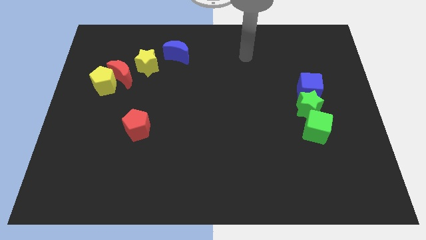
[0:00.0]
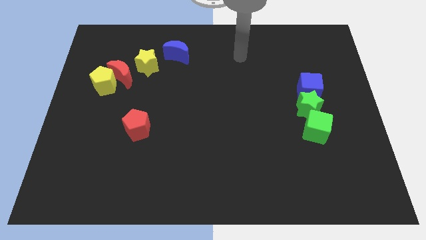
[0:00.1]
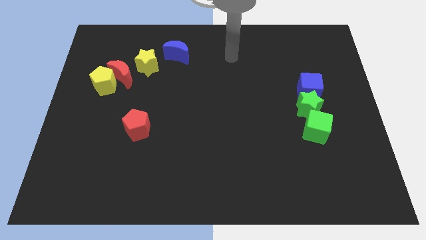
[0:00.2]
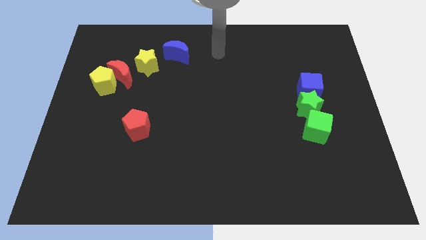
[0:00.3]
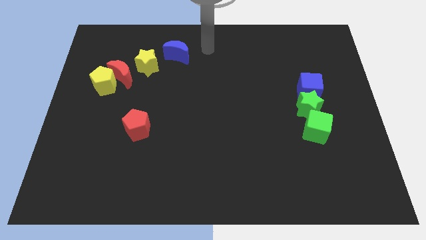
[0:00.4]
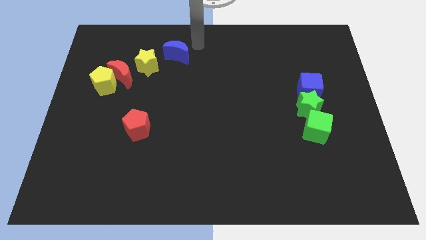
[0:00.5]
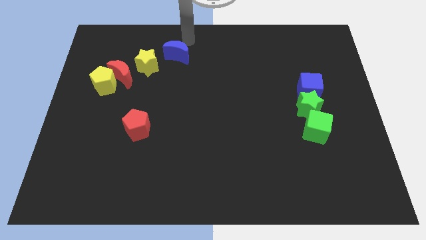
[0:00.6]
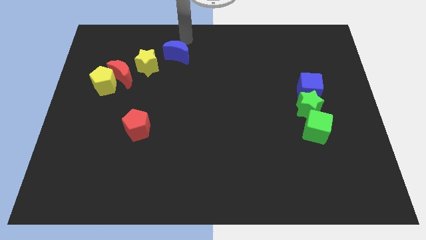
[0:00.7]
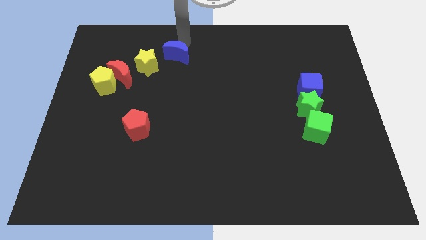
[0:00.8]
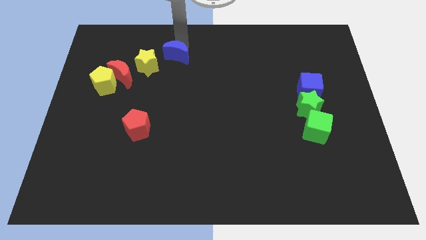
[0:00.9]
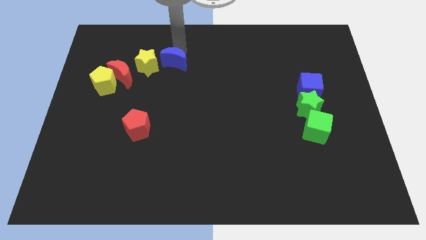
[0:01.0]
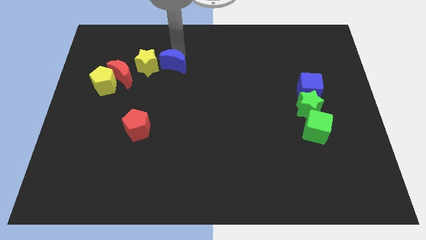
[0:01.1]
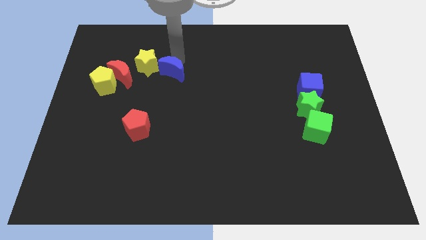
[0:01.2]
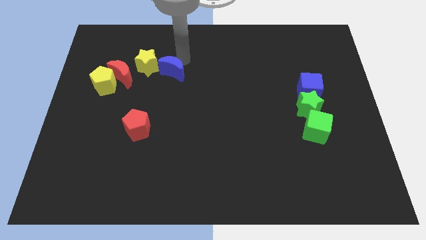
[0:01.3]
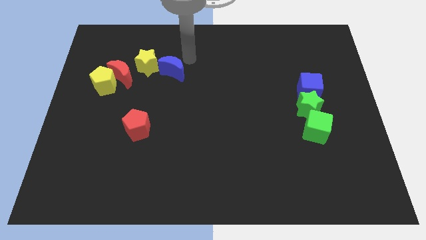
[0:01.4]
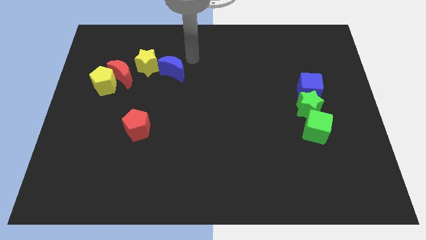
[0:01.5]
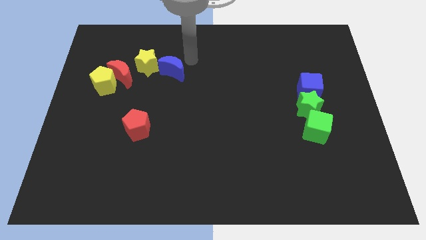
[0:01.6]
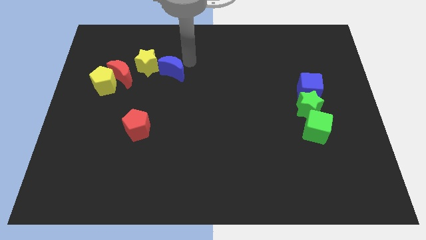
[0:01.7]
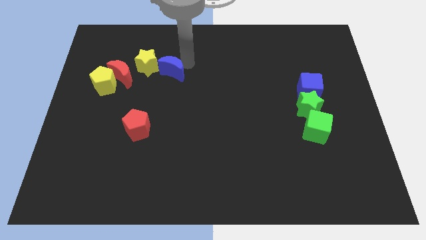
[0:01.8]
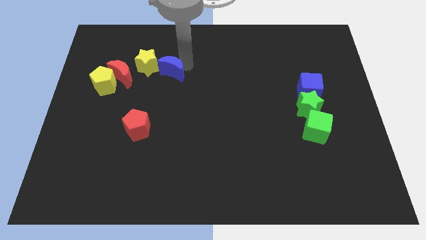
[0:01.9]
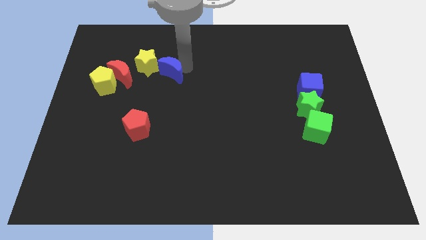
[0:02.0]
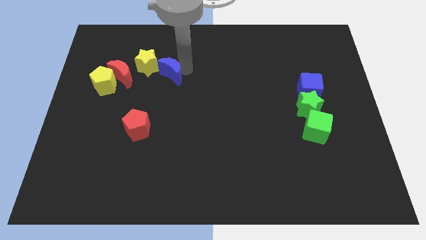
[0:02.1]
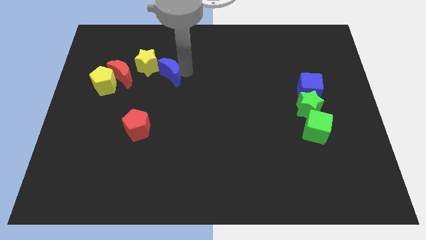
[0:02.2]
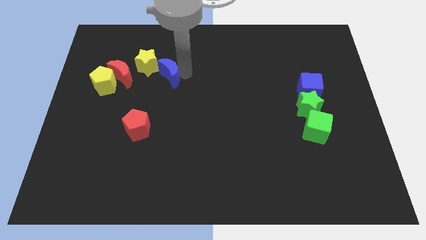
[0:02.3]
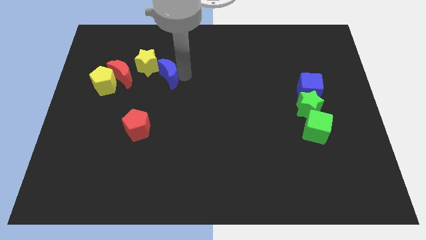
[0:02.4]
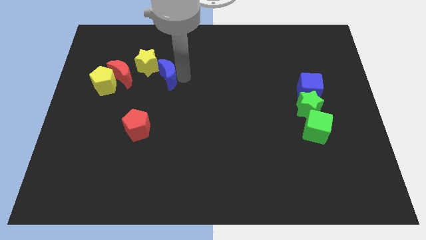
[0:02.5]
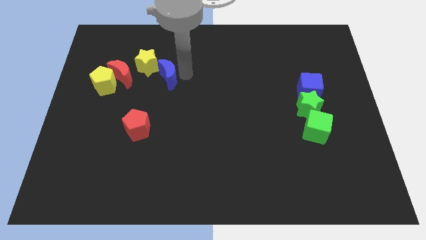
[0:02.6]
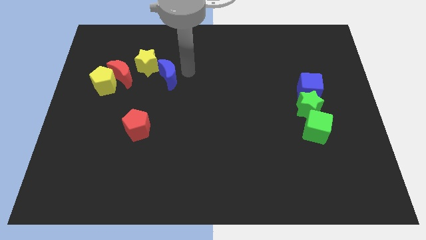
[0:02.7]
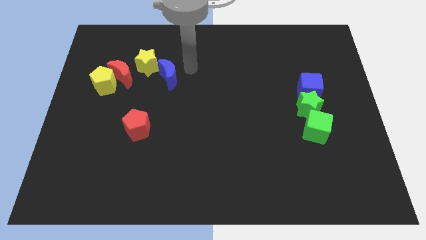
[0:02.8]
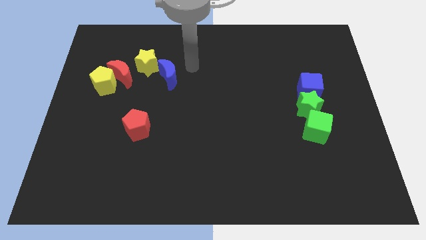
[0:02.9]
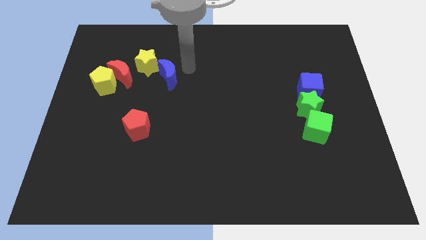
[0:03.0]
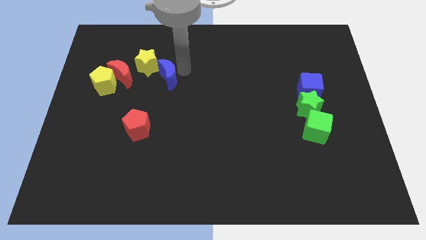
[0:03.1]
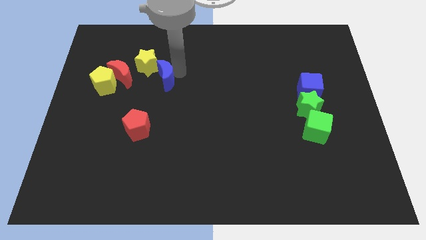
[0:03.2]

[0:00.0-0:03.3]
push the blue moon down and left diagonally a little bit

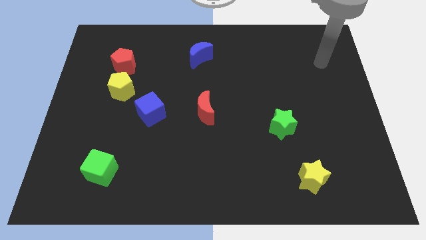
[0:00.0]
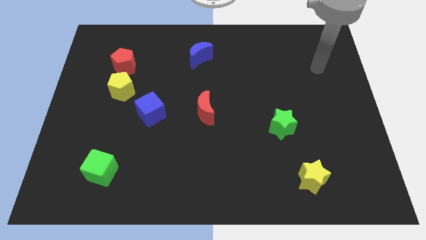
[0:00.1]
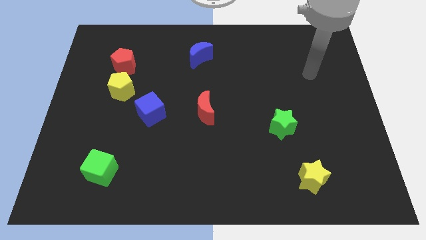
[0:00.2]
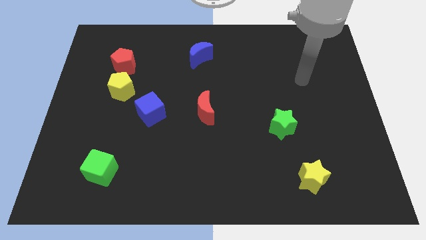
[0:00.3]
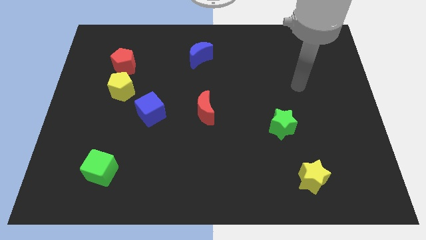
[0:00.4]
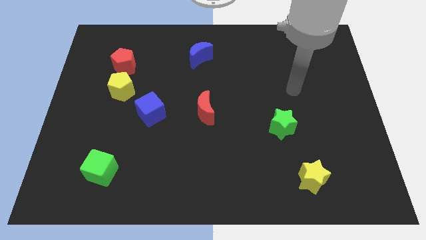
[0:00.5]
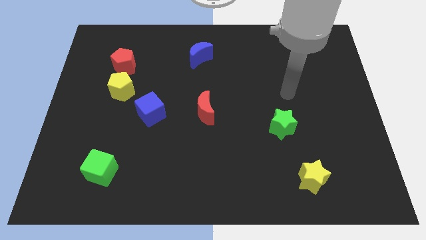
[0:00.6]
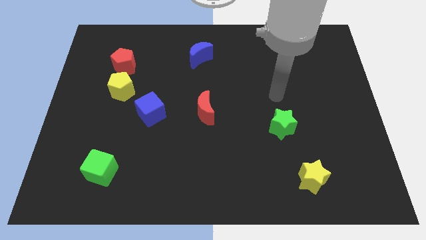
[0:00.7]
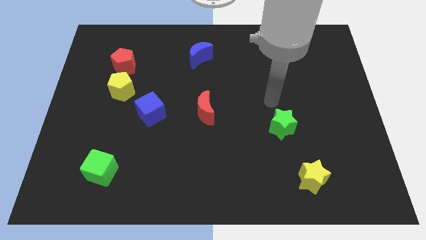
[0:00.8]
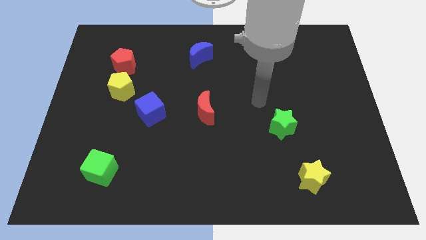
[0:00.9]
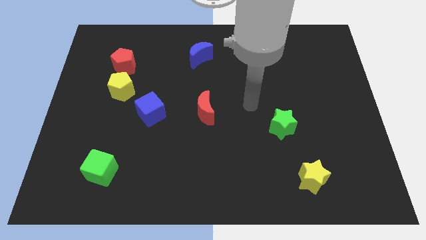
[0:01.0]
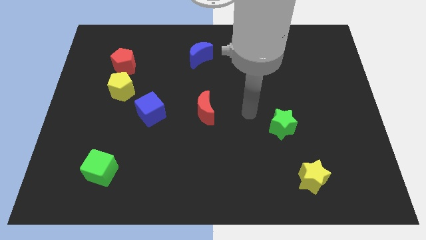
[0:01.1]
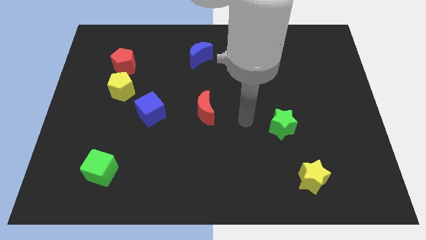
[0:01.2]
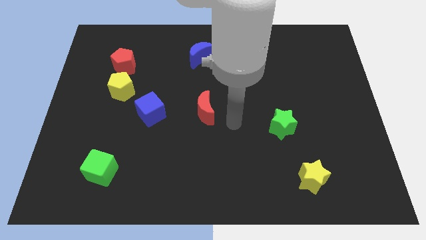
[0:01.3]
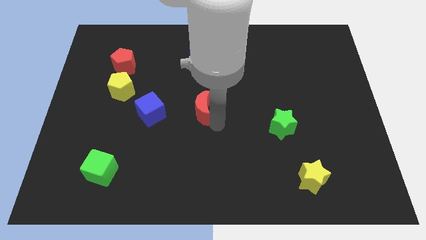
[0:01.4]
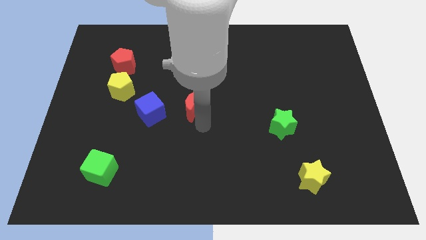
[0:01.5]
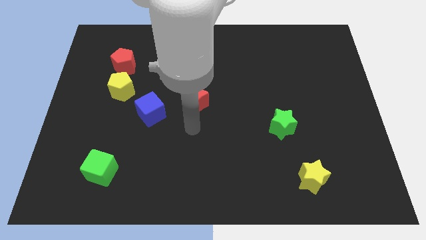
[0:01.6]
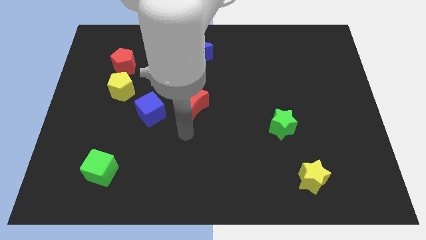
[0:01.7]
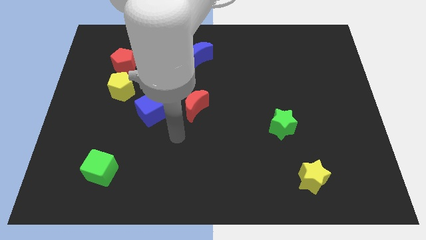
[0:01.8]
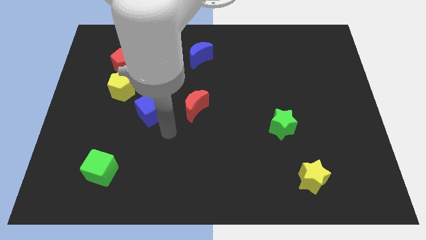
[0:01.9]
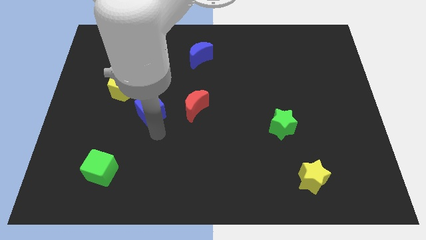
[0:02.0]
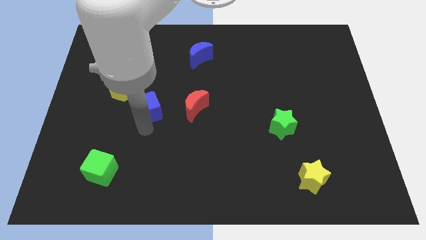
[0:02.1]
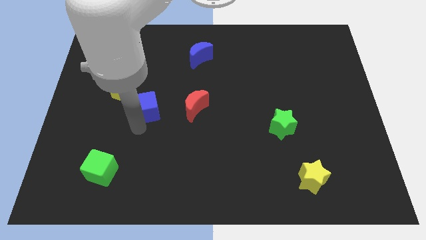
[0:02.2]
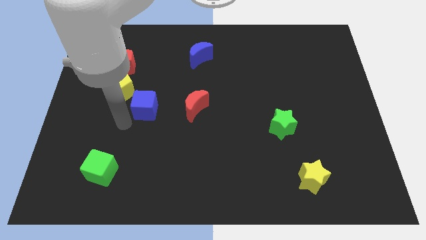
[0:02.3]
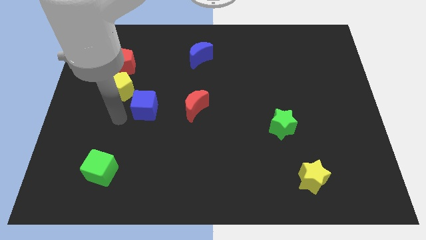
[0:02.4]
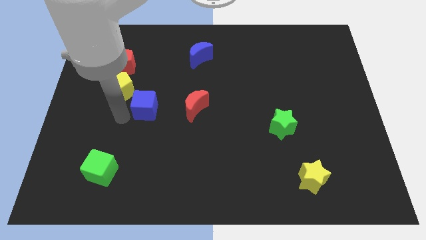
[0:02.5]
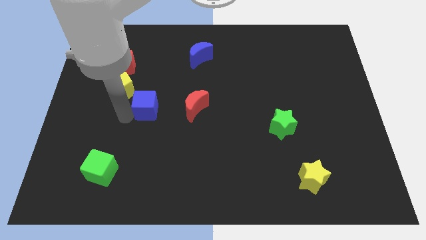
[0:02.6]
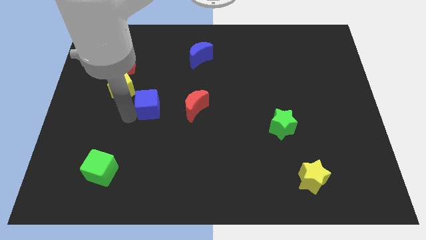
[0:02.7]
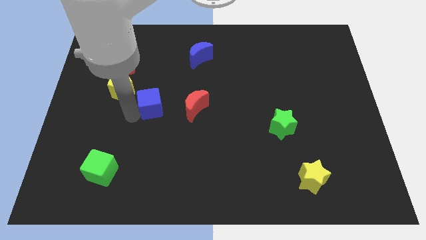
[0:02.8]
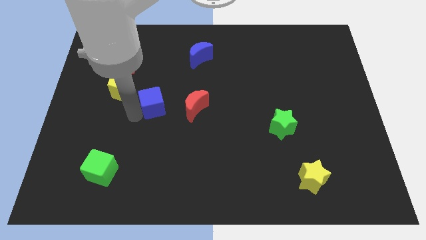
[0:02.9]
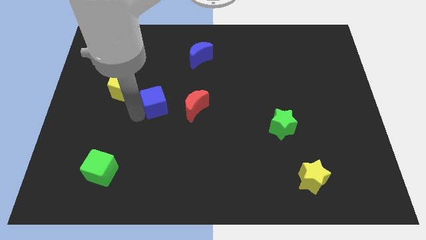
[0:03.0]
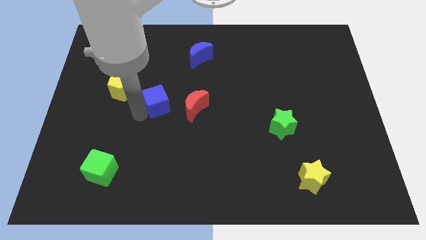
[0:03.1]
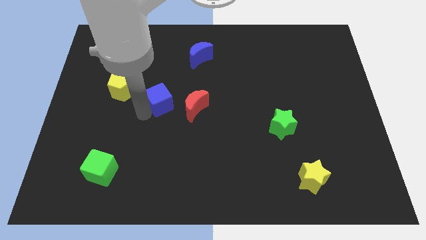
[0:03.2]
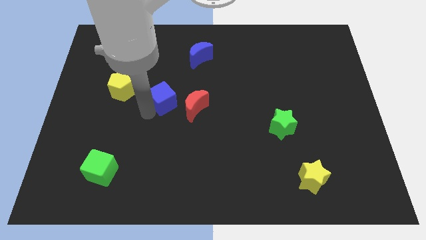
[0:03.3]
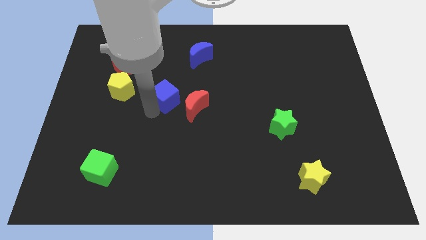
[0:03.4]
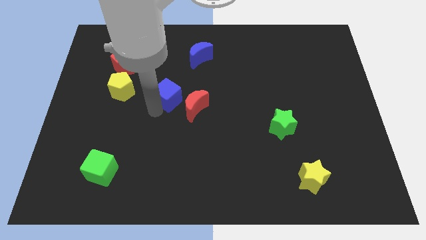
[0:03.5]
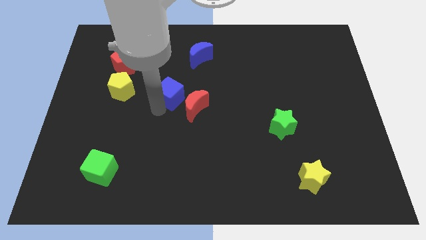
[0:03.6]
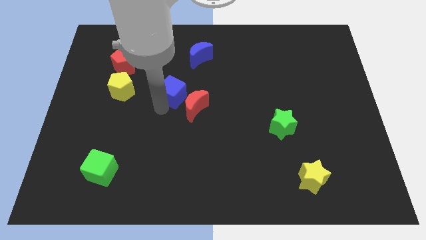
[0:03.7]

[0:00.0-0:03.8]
slide the blue cube upwards and to the right a little

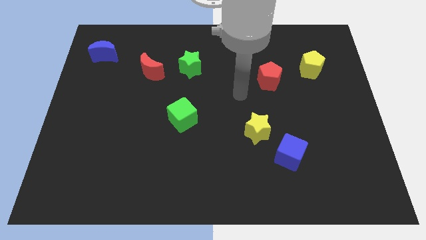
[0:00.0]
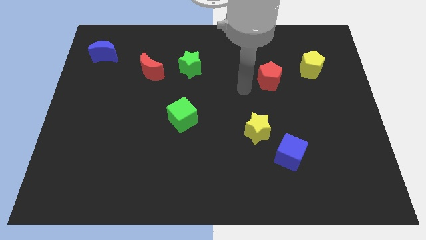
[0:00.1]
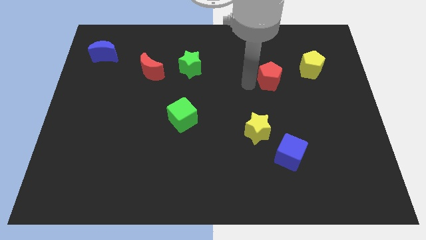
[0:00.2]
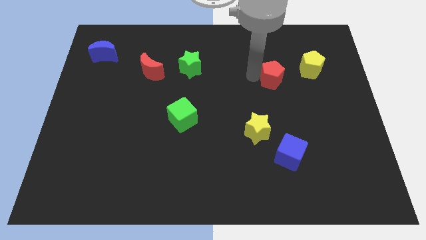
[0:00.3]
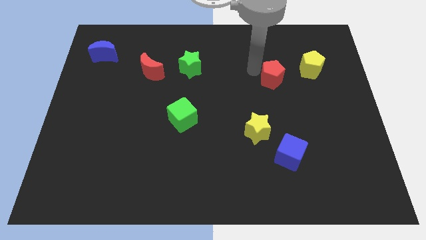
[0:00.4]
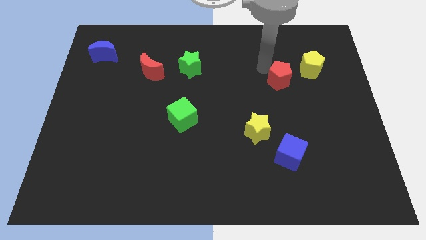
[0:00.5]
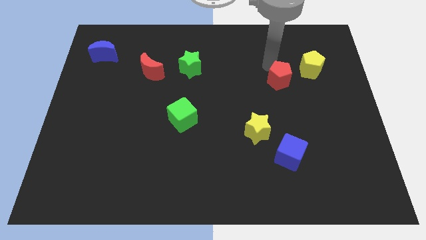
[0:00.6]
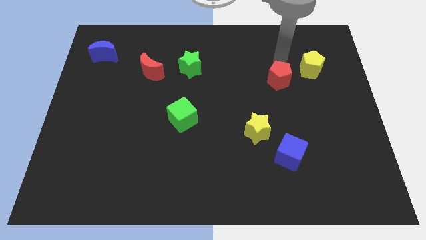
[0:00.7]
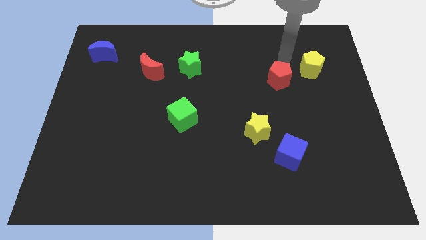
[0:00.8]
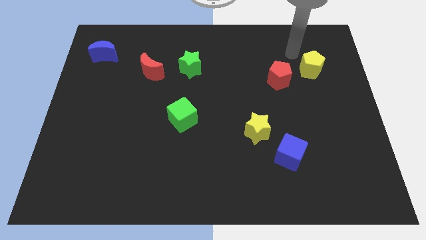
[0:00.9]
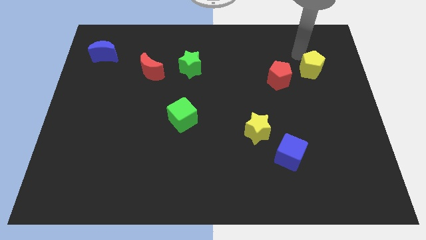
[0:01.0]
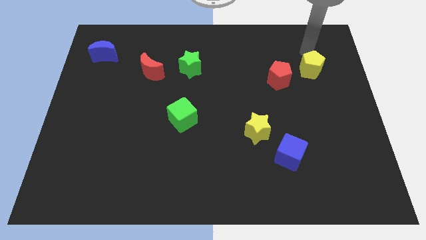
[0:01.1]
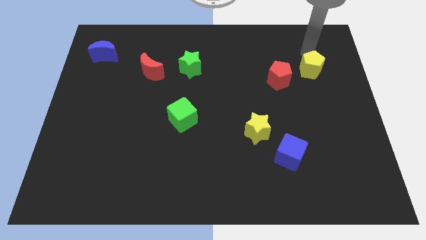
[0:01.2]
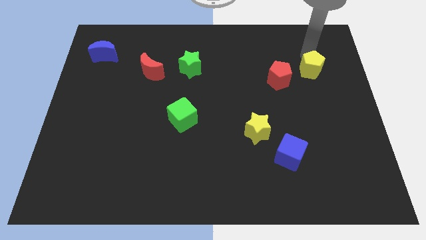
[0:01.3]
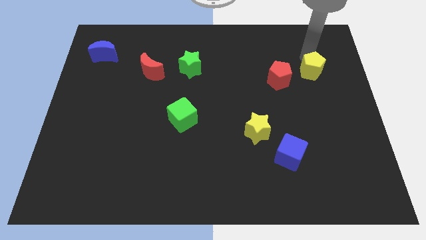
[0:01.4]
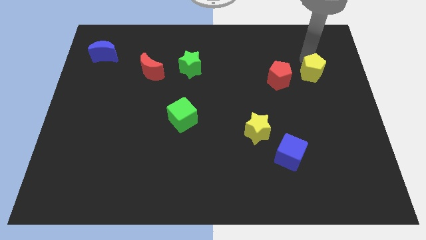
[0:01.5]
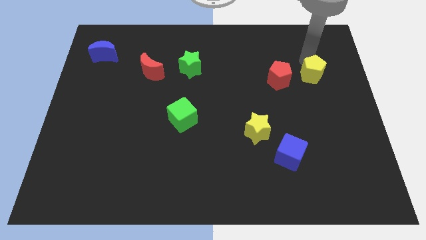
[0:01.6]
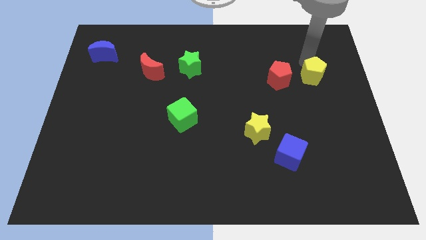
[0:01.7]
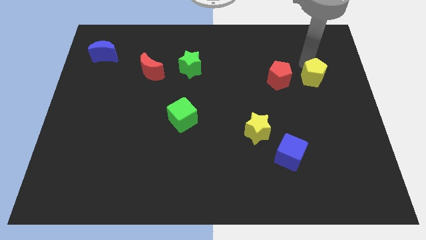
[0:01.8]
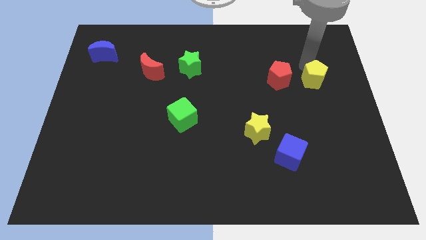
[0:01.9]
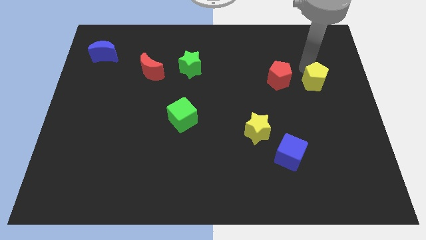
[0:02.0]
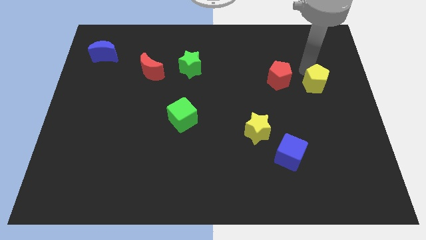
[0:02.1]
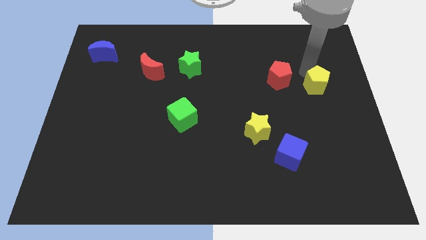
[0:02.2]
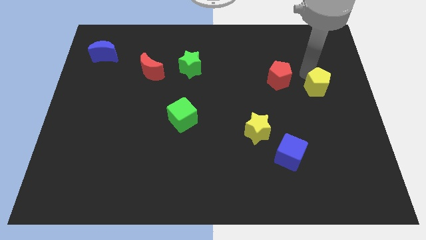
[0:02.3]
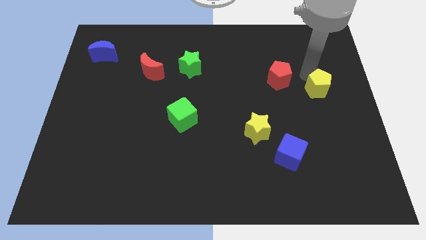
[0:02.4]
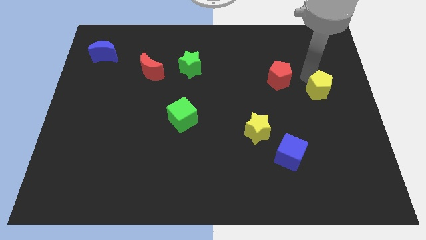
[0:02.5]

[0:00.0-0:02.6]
slightly move the yellow pentagon down
